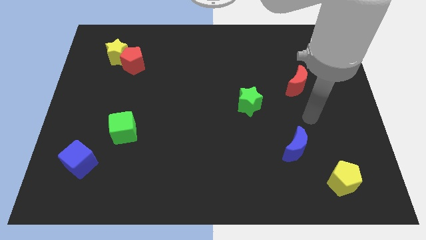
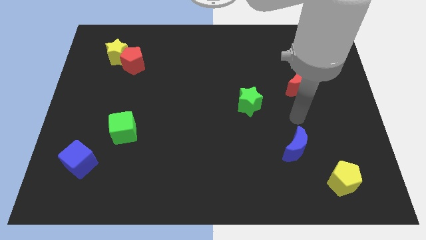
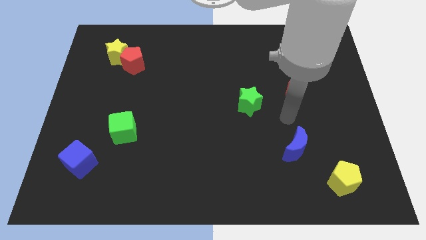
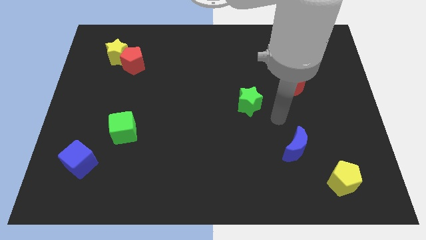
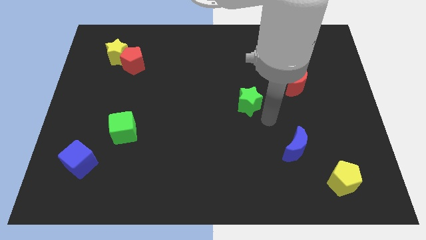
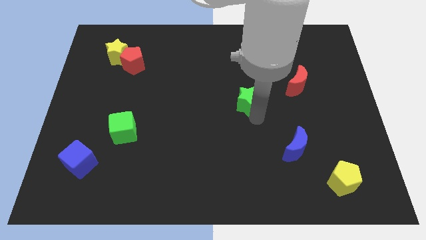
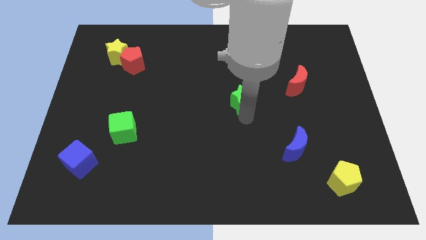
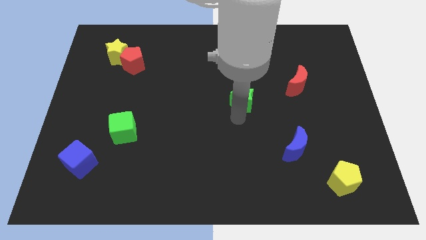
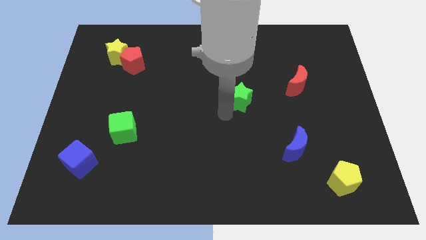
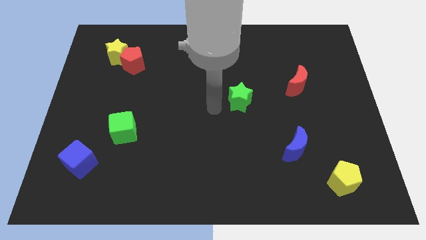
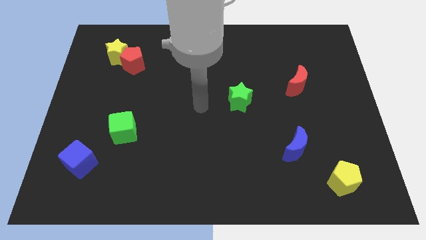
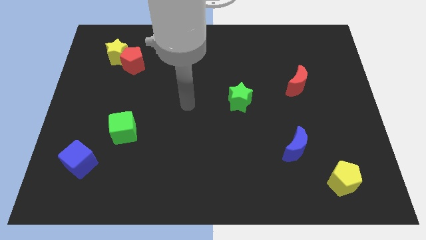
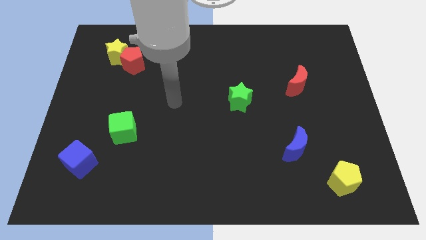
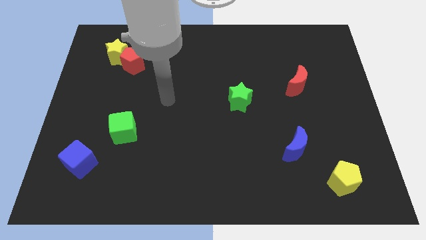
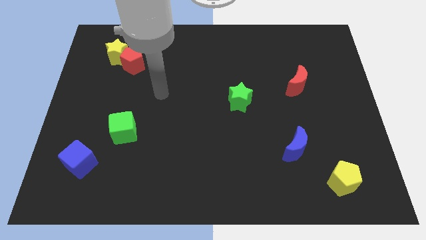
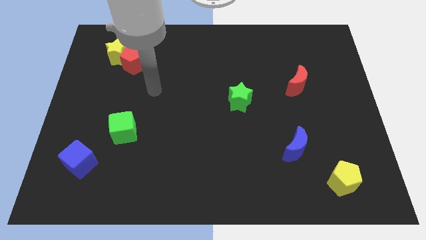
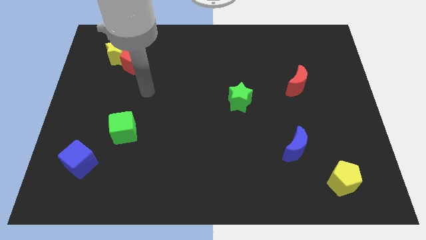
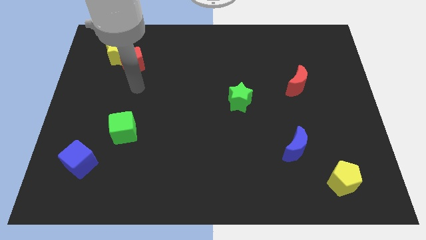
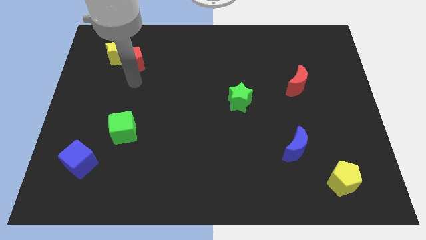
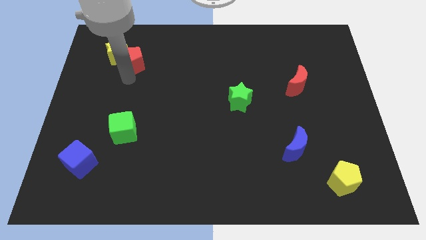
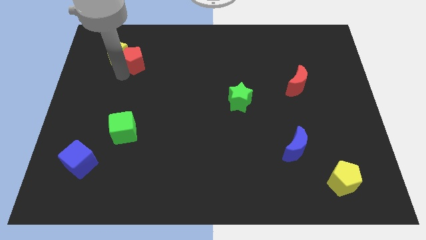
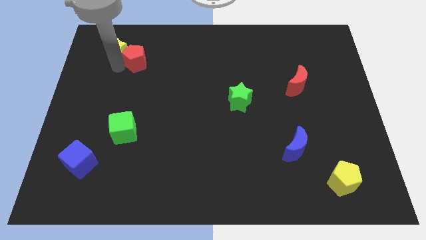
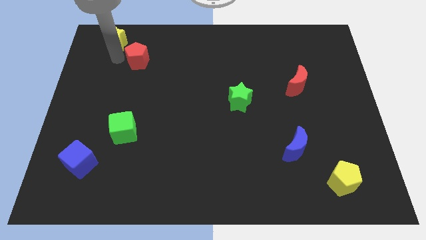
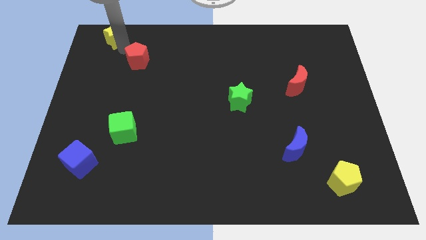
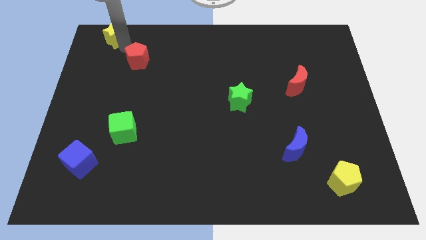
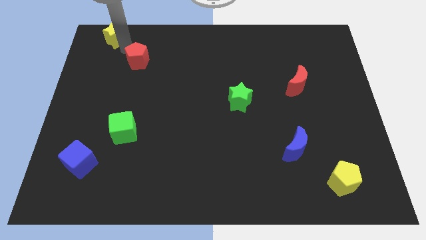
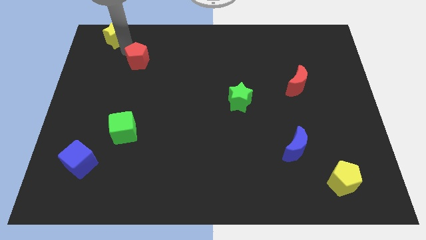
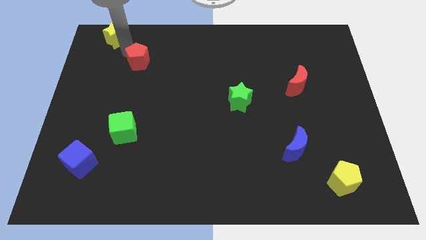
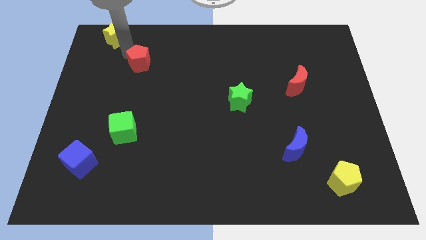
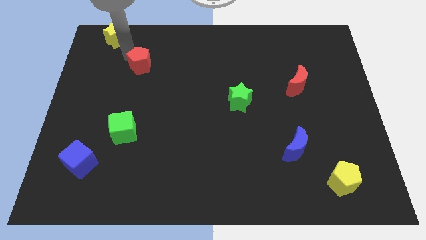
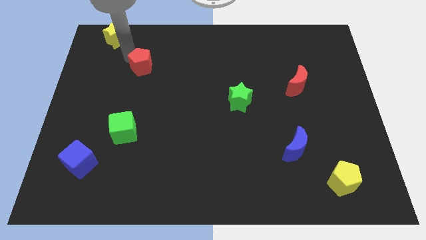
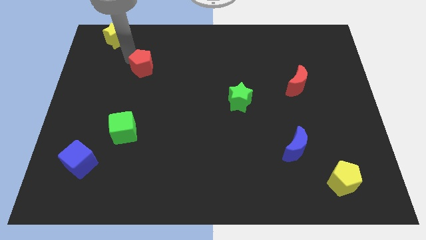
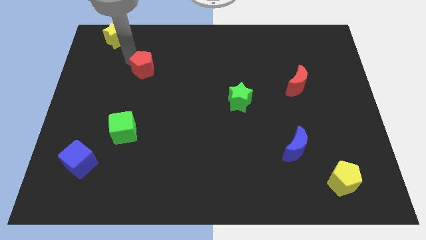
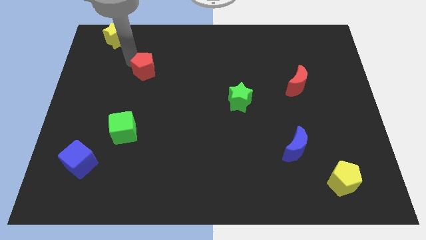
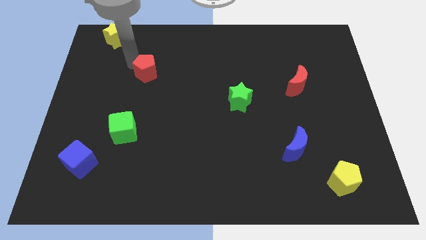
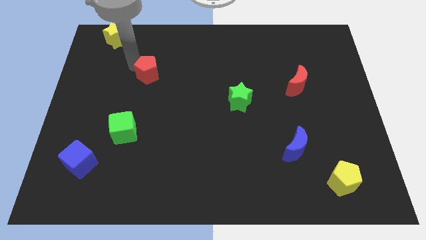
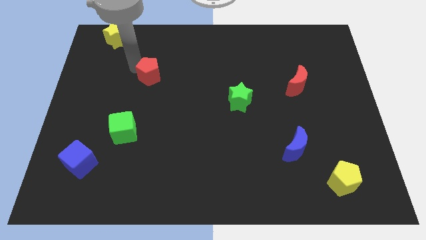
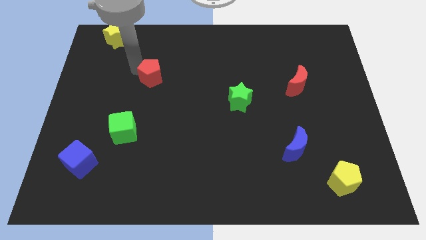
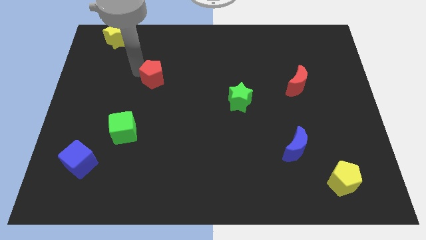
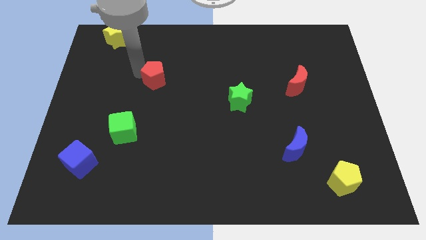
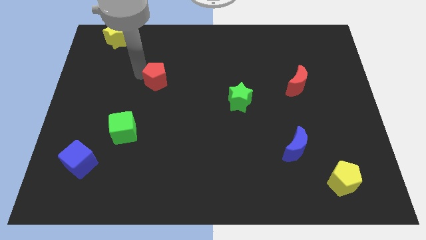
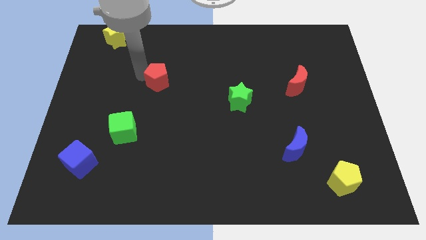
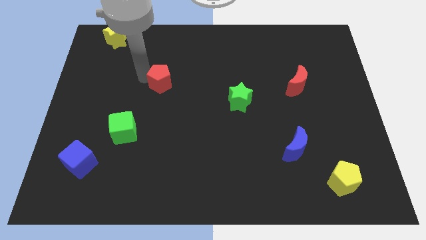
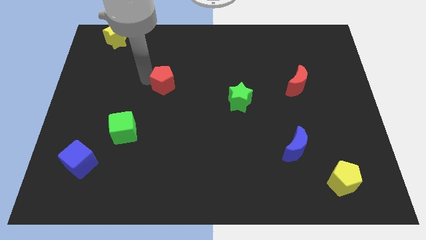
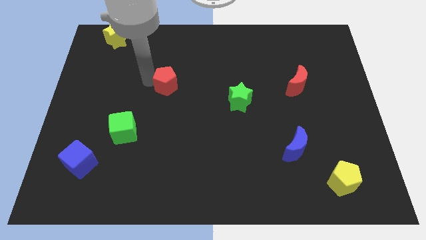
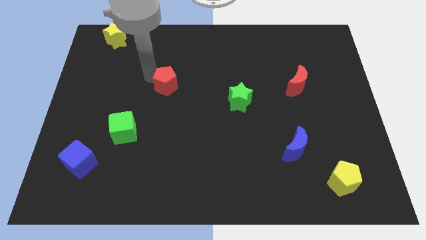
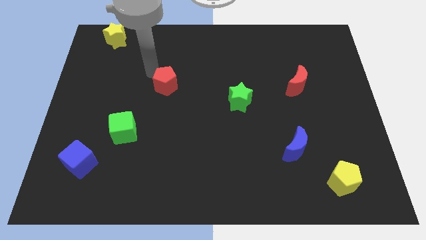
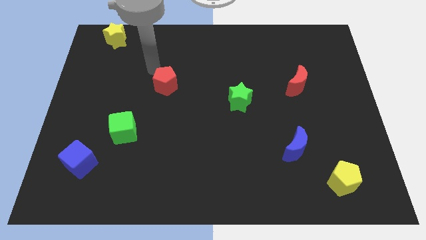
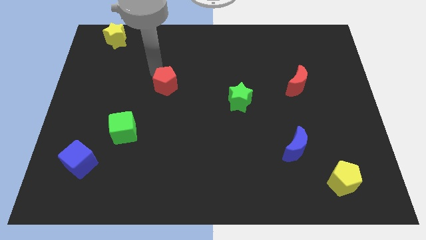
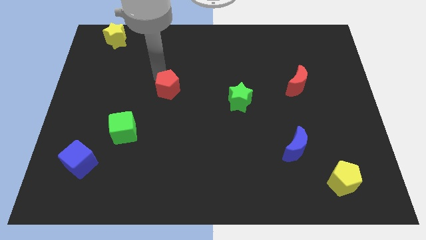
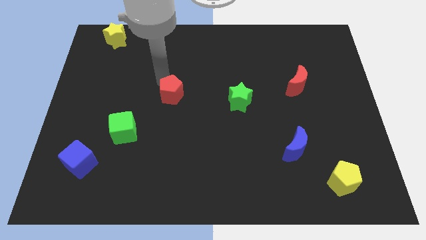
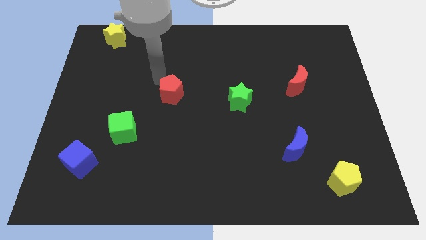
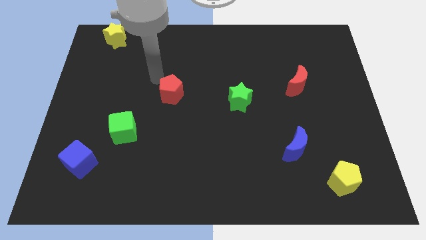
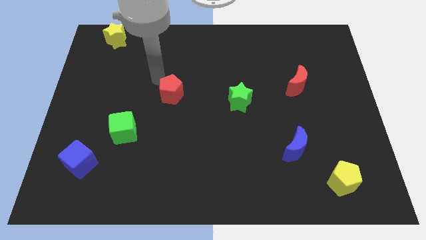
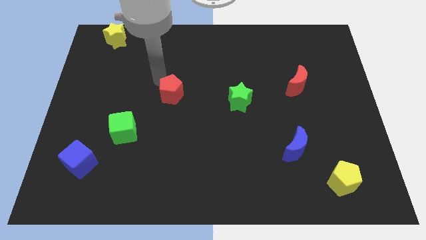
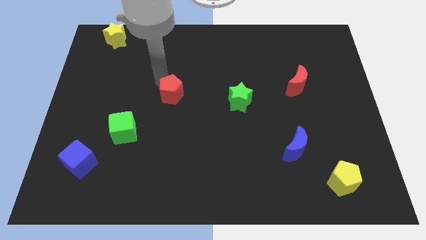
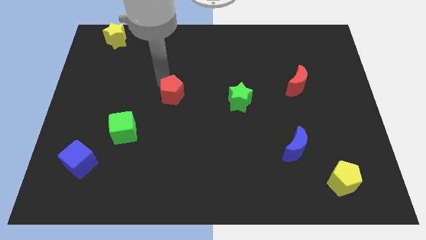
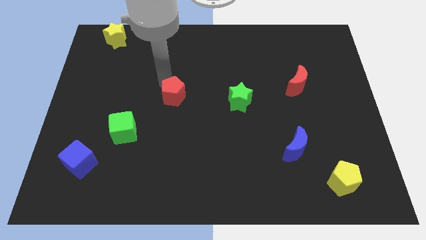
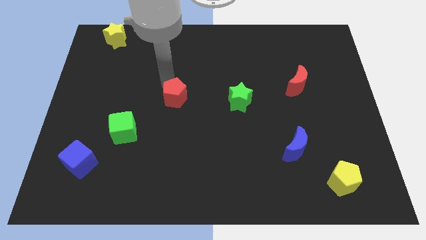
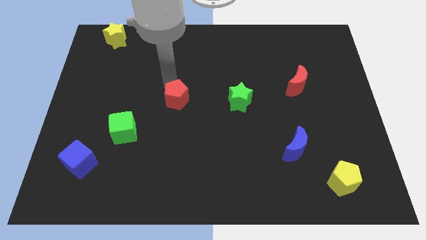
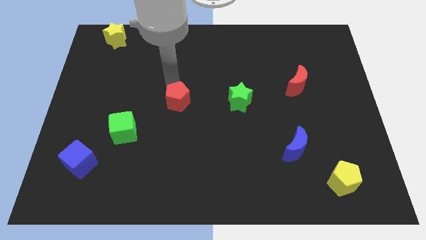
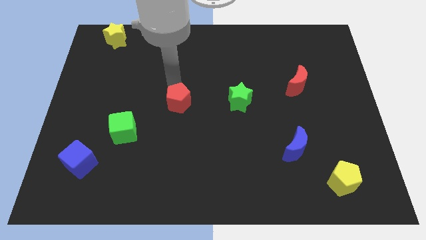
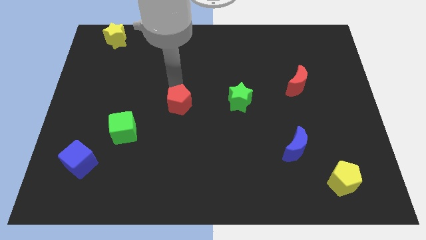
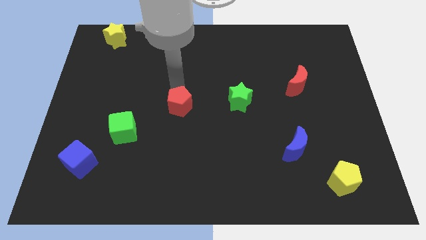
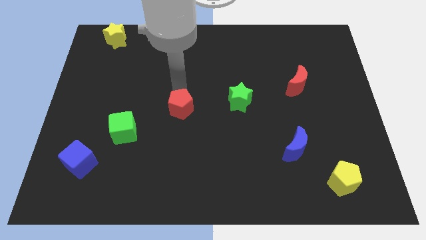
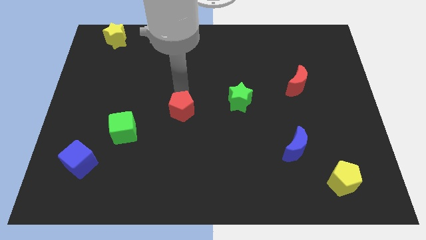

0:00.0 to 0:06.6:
move the red pentagon downwards and right

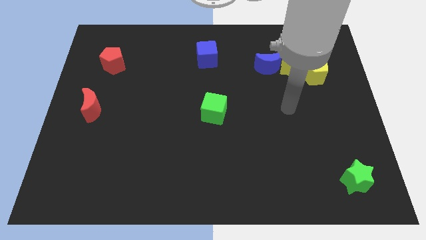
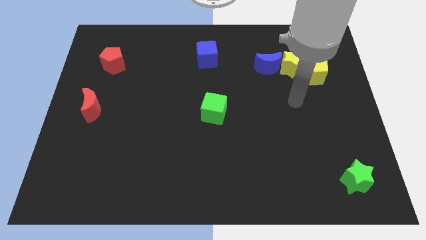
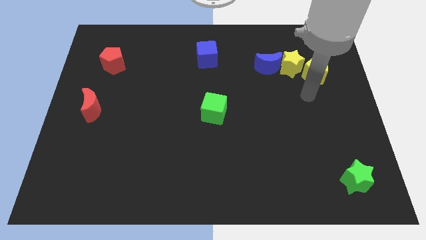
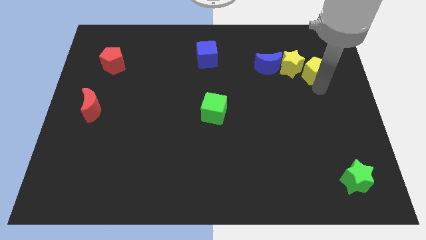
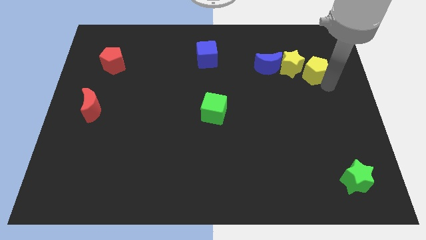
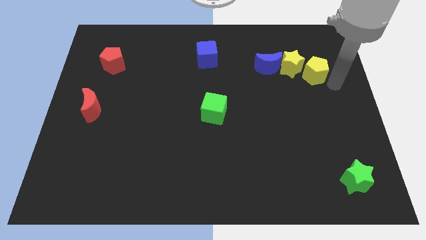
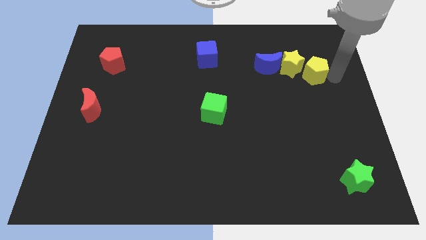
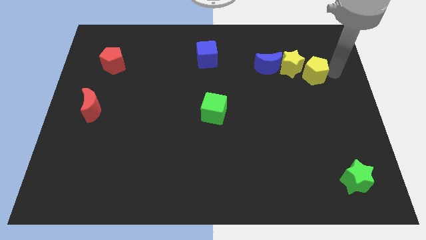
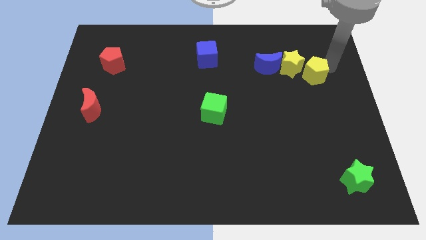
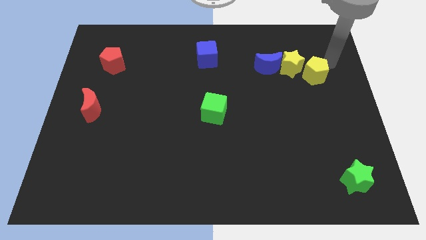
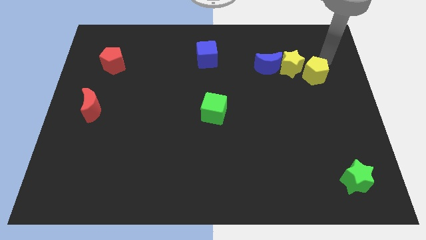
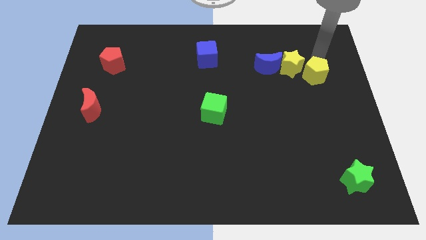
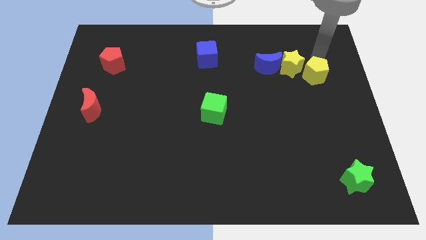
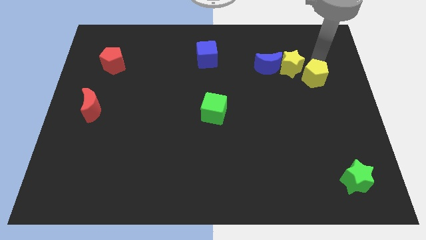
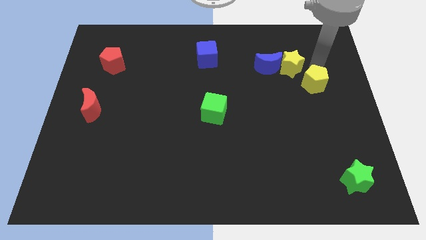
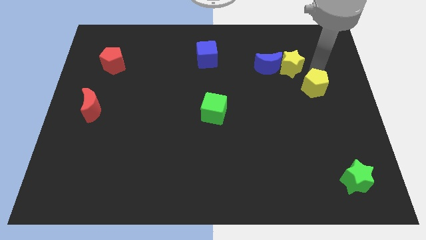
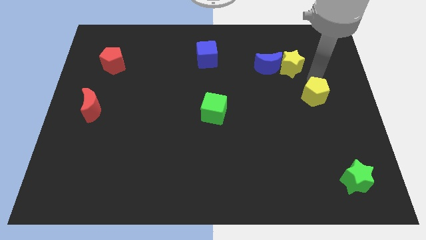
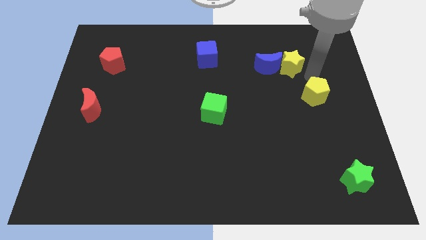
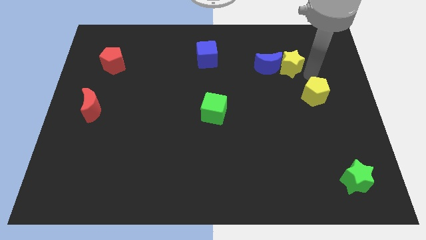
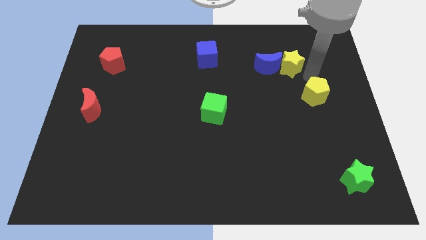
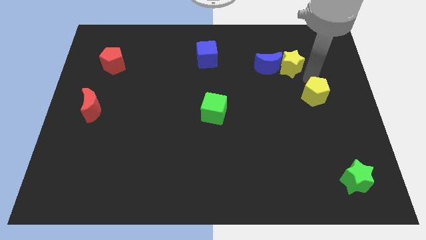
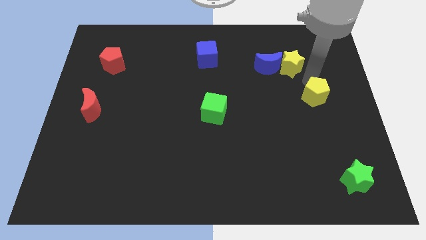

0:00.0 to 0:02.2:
slightly slide the yellow pentagon downwards
